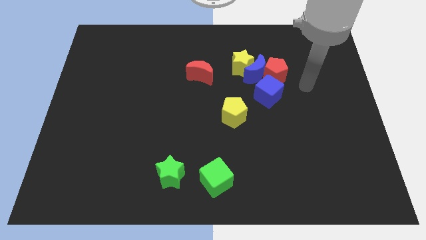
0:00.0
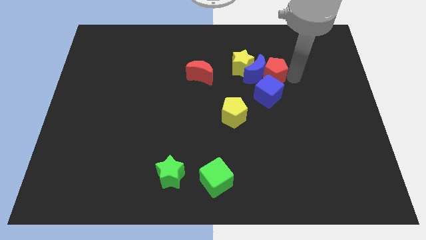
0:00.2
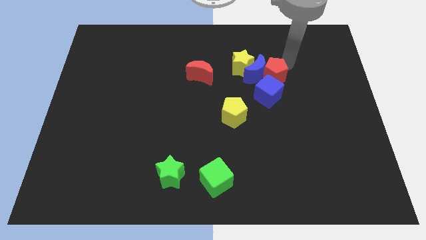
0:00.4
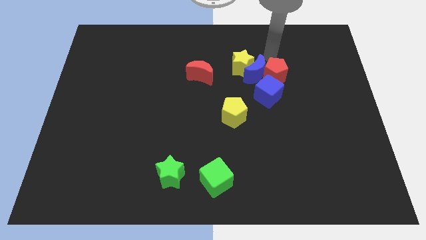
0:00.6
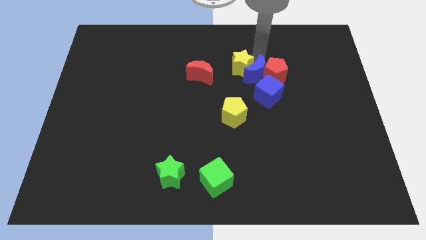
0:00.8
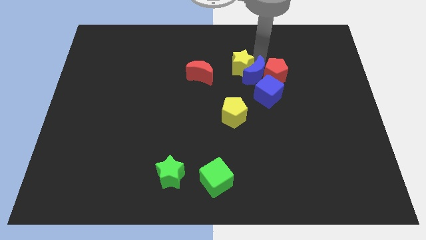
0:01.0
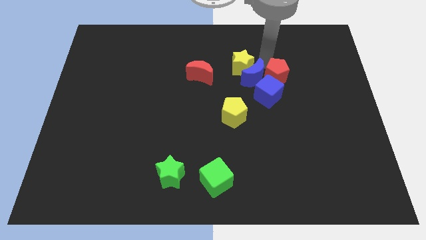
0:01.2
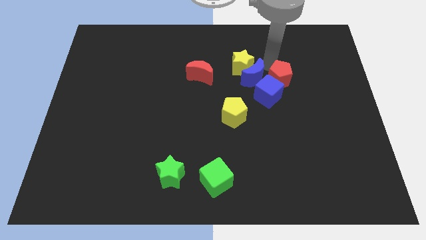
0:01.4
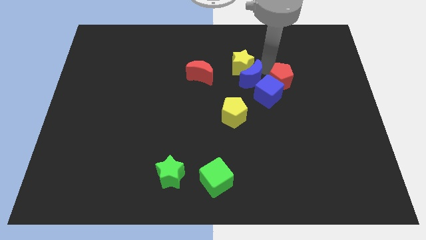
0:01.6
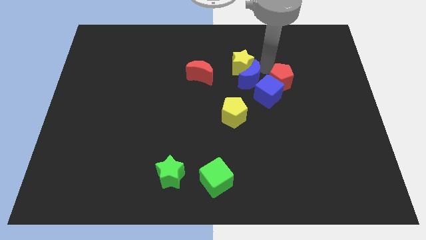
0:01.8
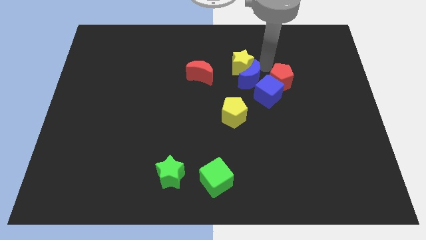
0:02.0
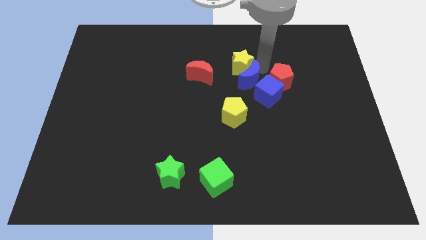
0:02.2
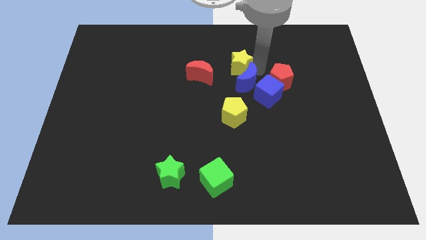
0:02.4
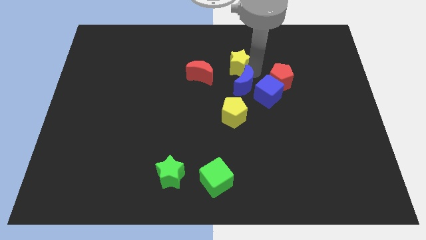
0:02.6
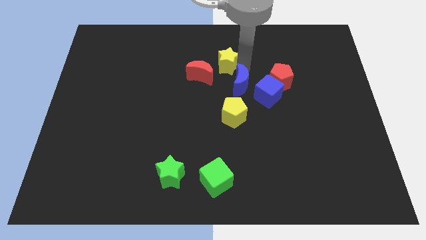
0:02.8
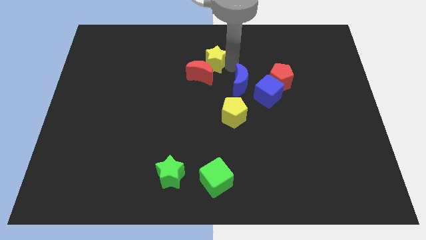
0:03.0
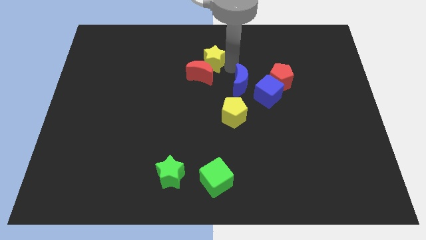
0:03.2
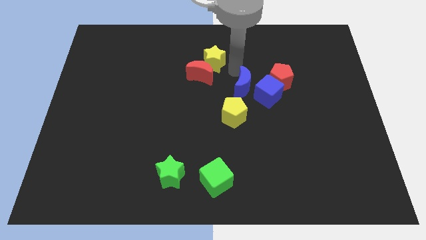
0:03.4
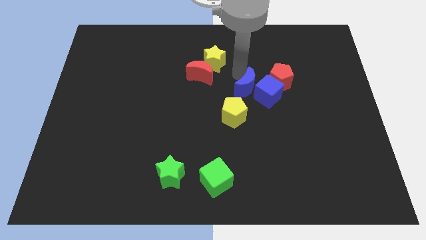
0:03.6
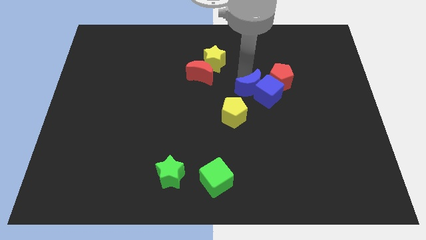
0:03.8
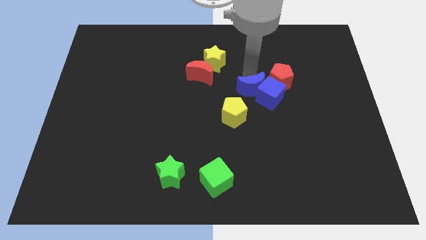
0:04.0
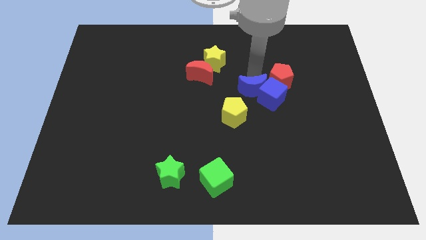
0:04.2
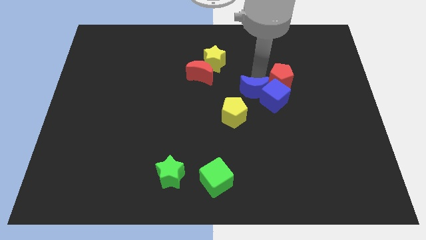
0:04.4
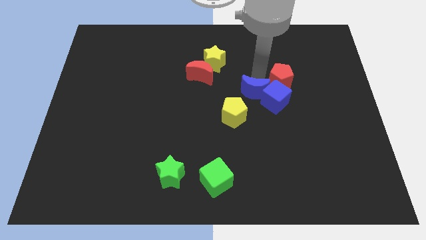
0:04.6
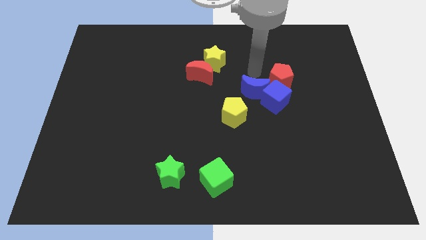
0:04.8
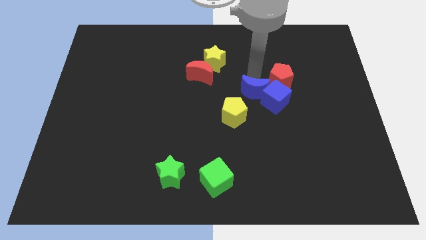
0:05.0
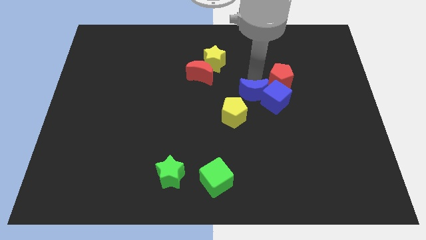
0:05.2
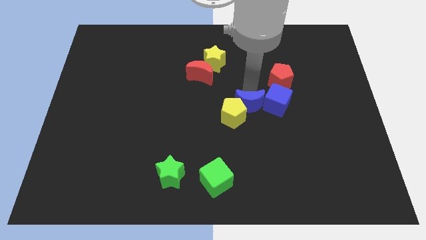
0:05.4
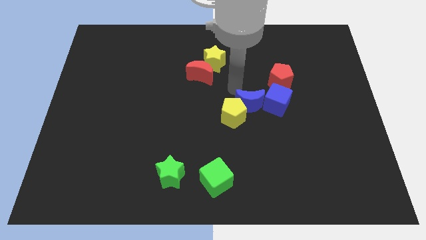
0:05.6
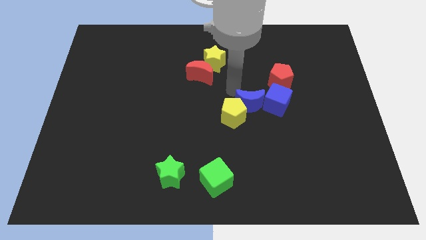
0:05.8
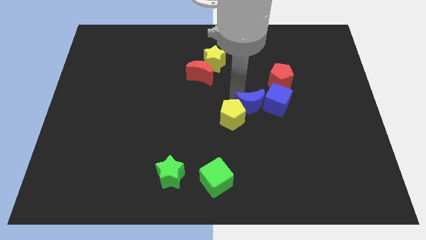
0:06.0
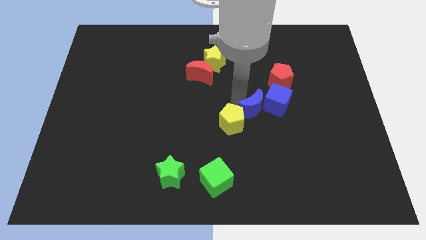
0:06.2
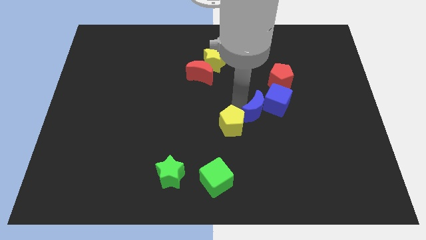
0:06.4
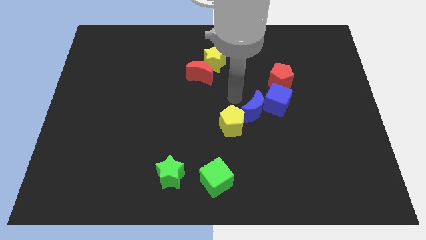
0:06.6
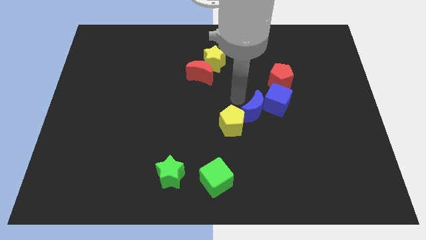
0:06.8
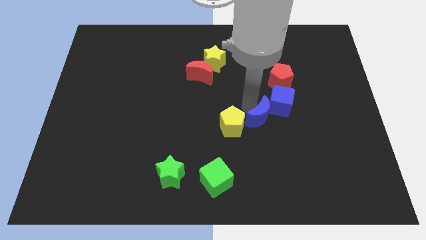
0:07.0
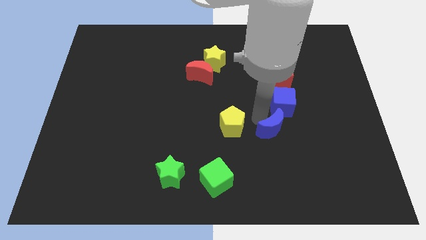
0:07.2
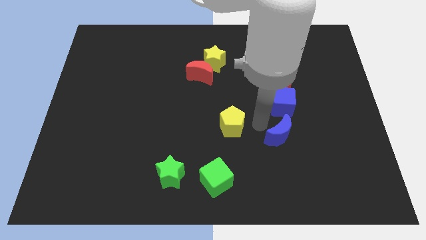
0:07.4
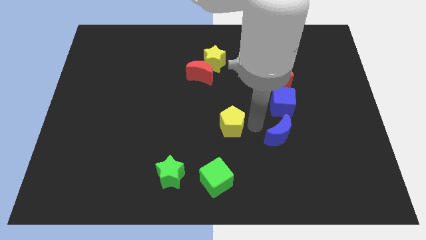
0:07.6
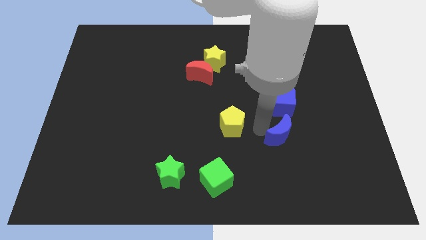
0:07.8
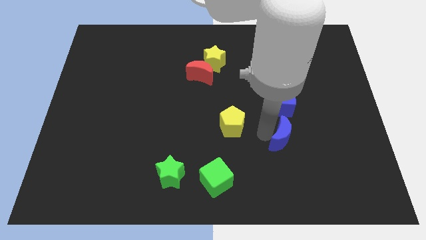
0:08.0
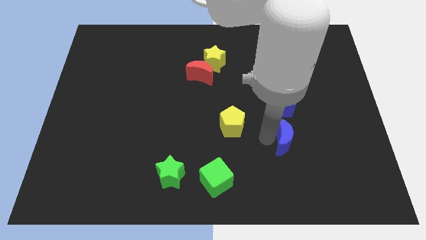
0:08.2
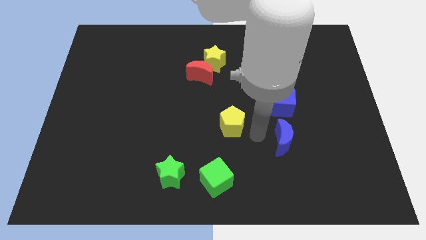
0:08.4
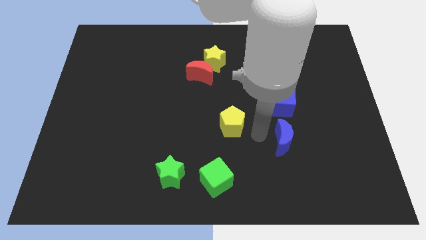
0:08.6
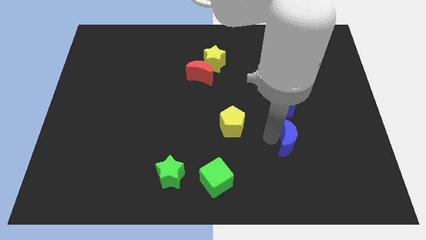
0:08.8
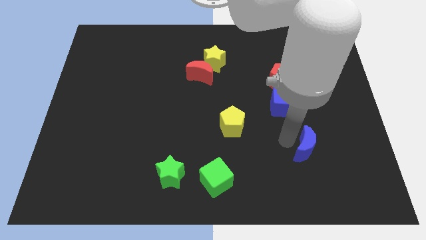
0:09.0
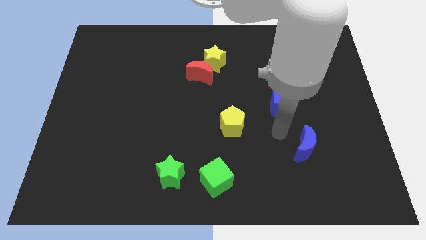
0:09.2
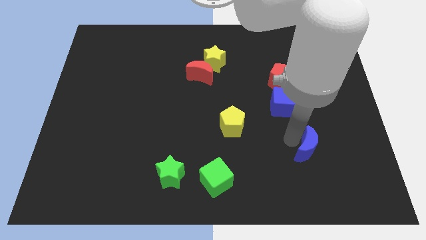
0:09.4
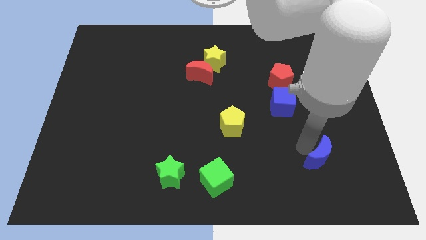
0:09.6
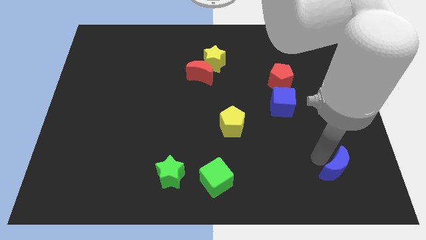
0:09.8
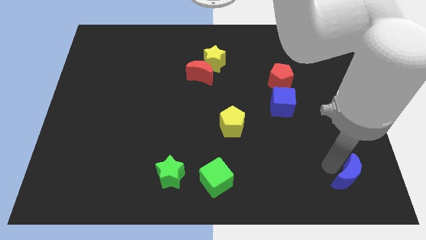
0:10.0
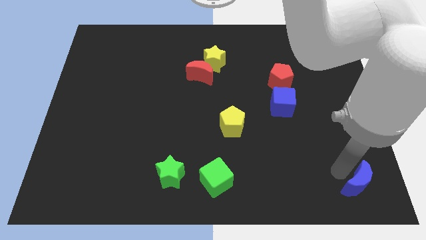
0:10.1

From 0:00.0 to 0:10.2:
put the blue moon to the bottom right corner

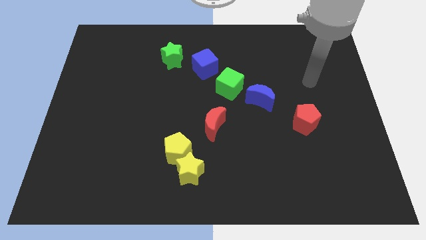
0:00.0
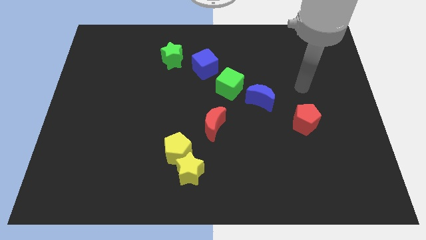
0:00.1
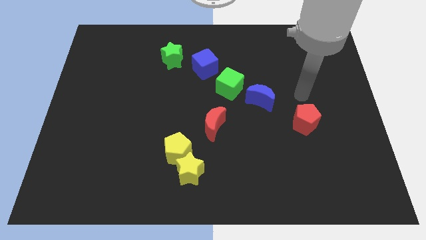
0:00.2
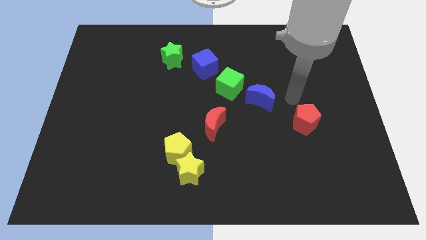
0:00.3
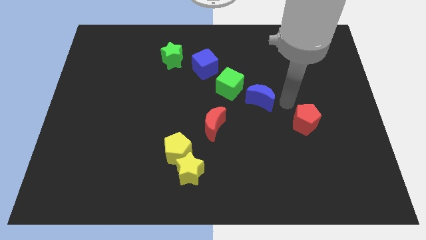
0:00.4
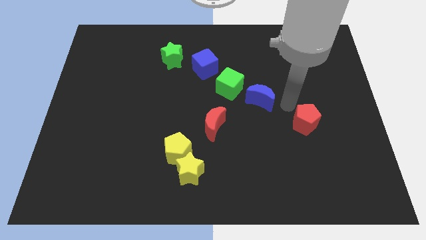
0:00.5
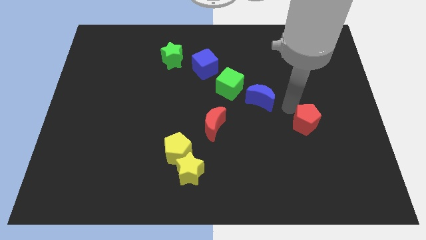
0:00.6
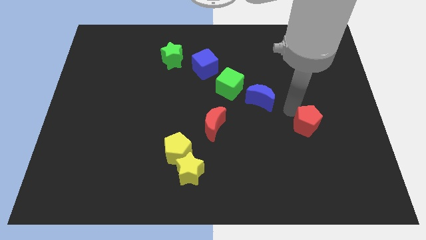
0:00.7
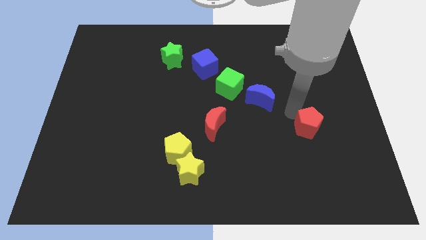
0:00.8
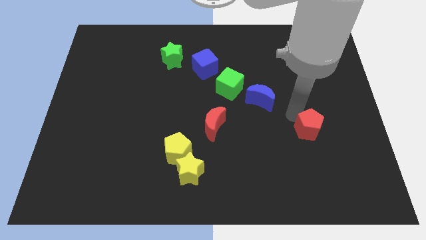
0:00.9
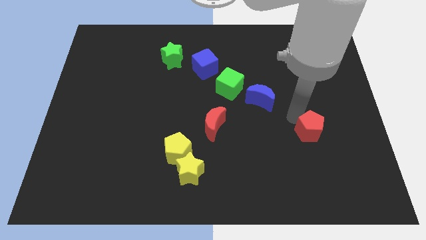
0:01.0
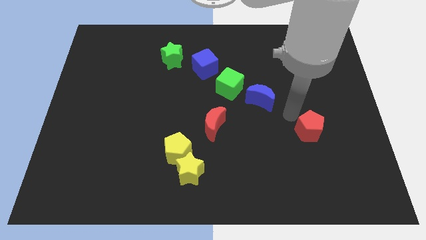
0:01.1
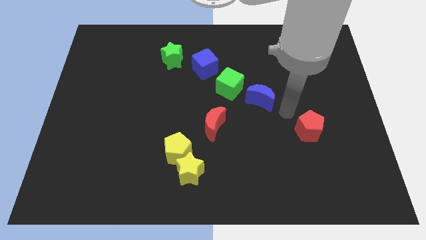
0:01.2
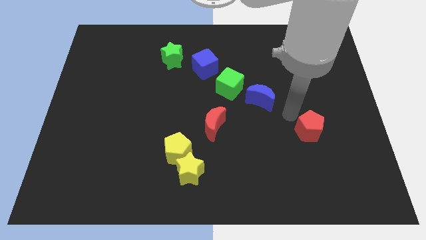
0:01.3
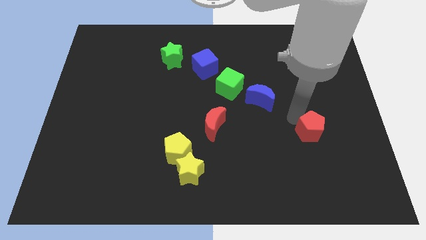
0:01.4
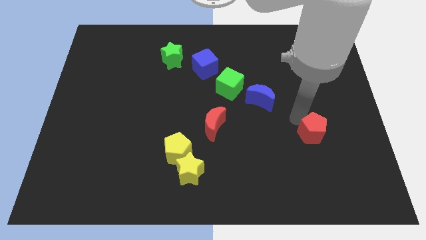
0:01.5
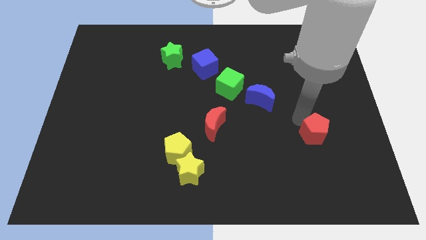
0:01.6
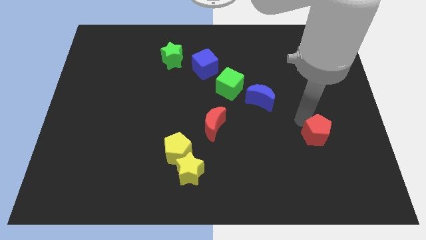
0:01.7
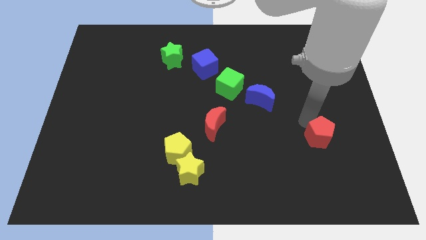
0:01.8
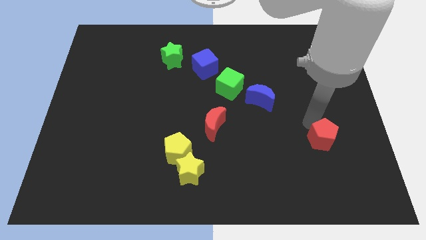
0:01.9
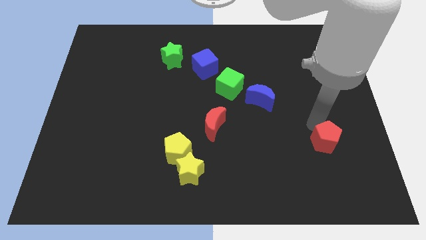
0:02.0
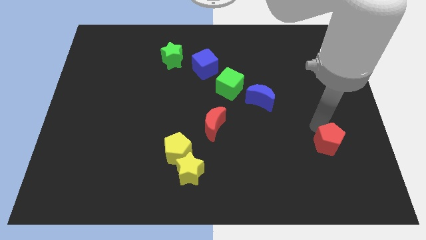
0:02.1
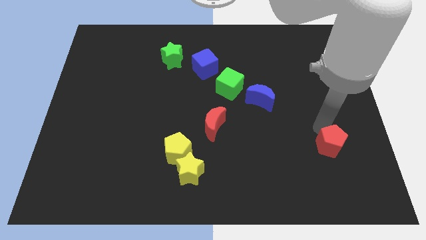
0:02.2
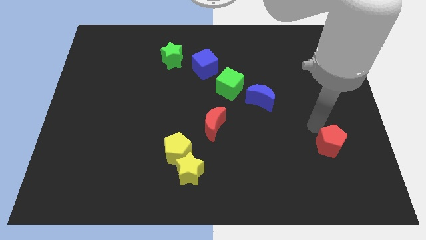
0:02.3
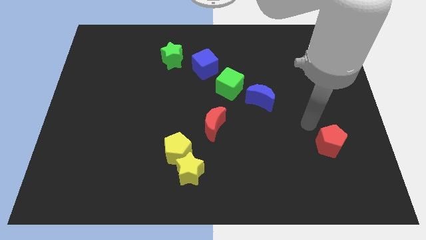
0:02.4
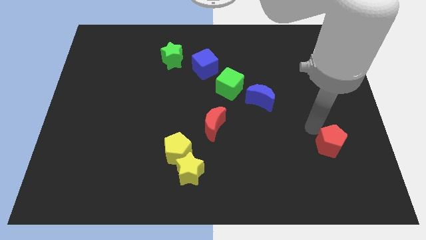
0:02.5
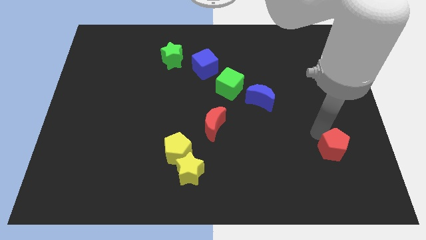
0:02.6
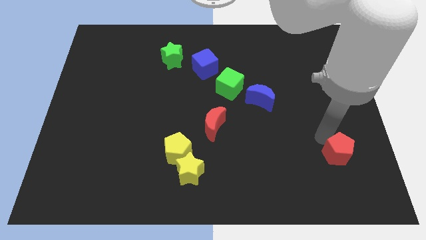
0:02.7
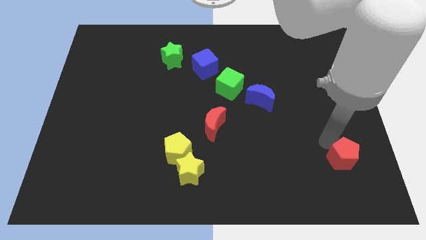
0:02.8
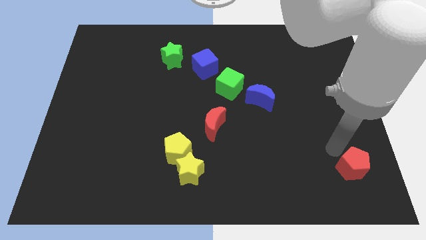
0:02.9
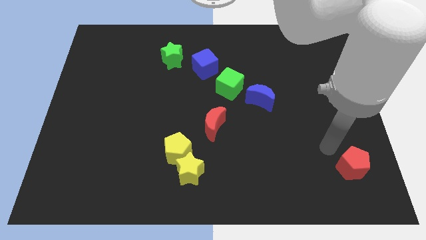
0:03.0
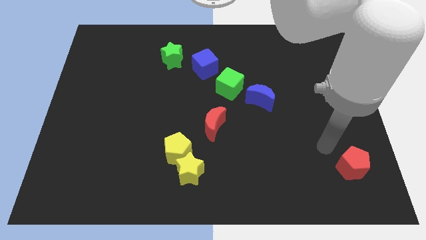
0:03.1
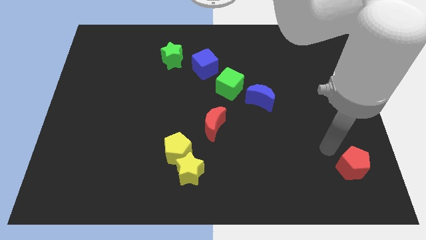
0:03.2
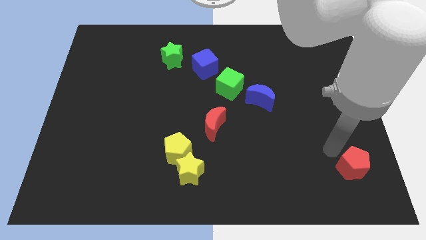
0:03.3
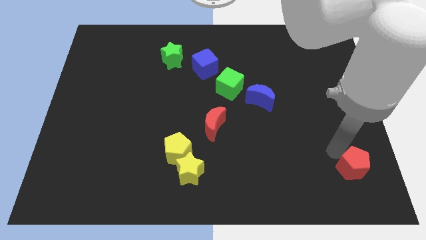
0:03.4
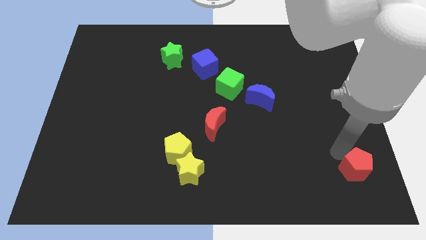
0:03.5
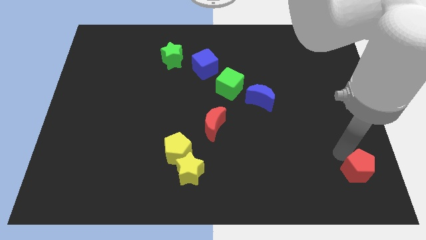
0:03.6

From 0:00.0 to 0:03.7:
slide the red pentagon to the bottom right of the board
